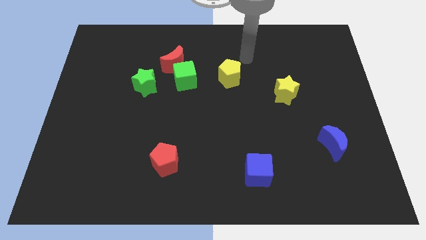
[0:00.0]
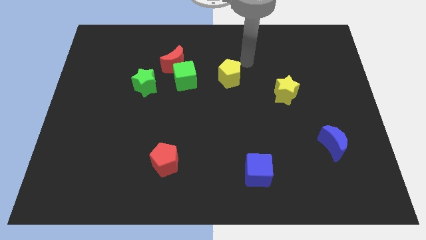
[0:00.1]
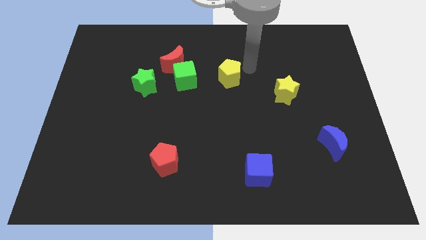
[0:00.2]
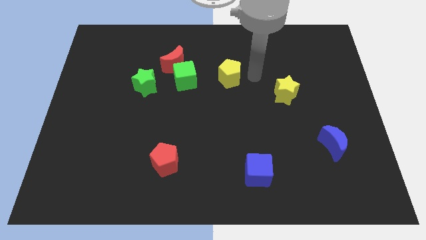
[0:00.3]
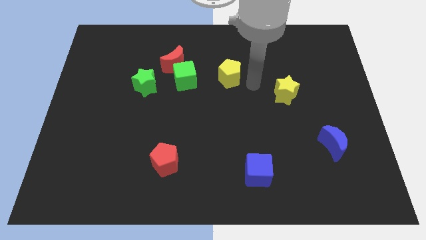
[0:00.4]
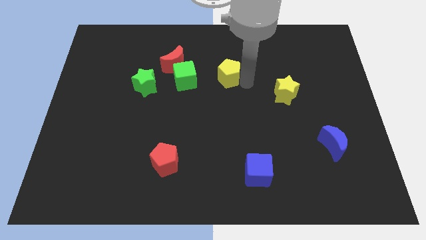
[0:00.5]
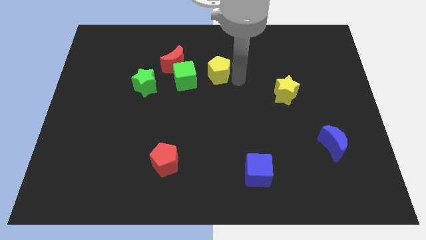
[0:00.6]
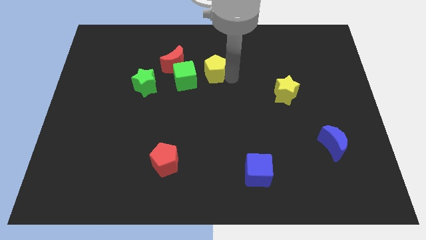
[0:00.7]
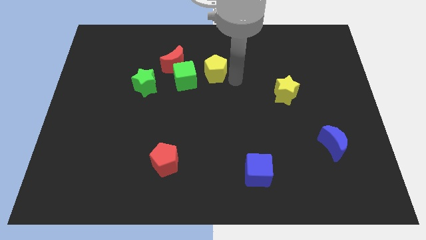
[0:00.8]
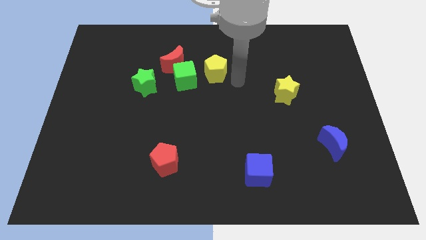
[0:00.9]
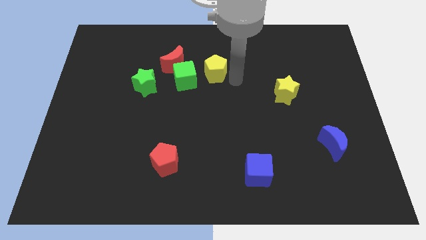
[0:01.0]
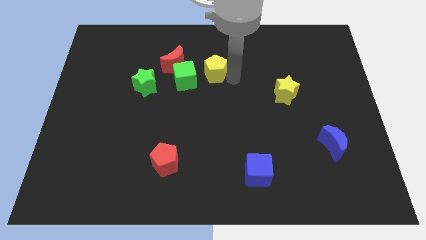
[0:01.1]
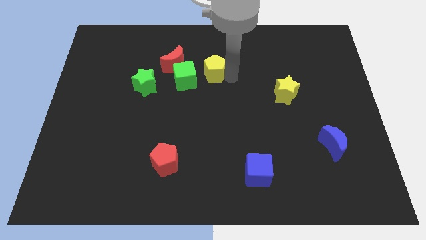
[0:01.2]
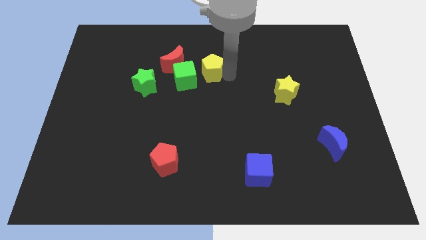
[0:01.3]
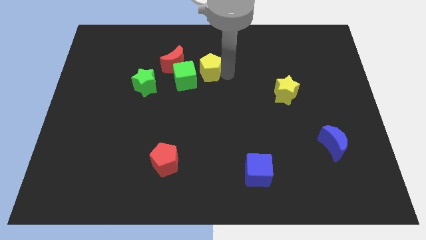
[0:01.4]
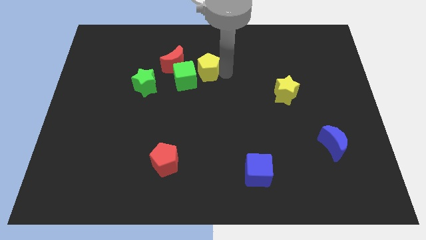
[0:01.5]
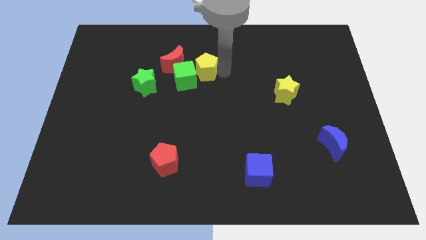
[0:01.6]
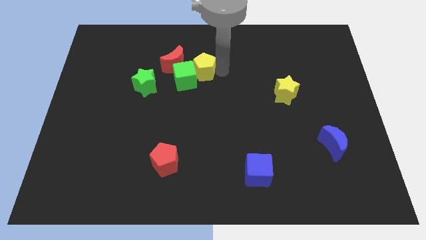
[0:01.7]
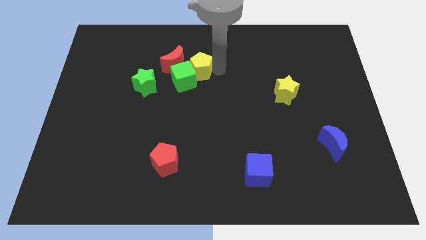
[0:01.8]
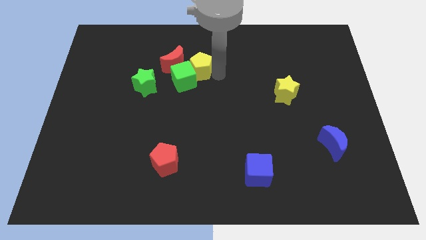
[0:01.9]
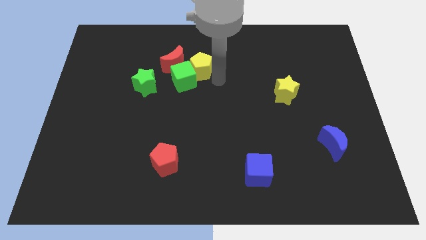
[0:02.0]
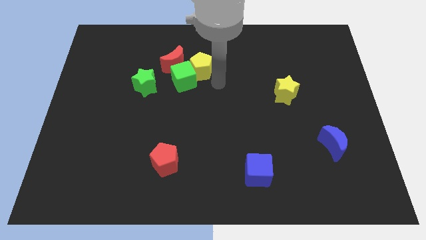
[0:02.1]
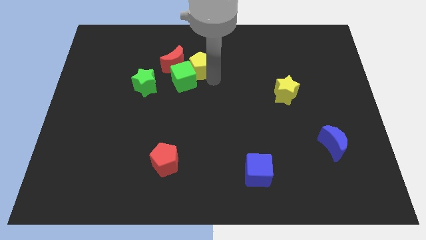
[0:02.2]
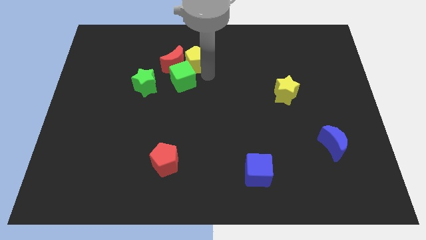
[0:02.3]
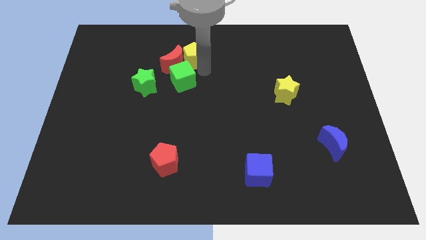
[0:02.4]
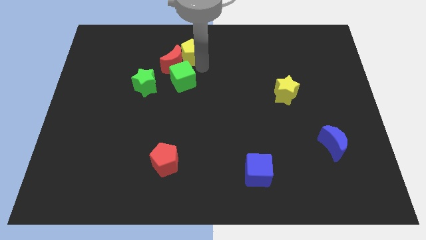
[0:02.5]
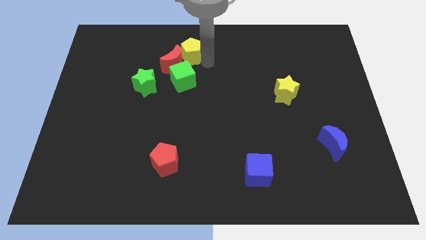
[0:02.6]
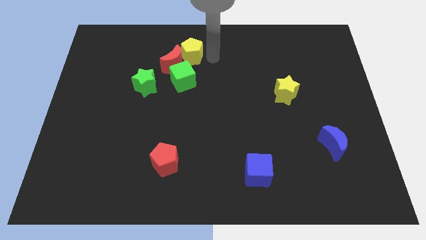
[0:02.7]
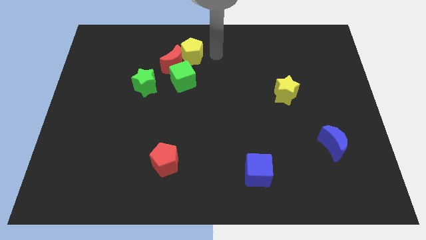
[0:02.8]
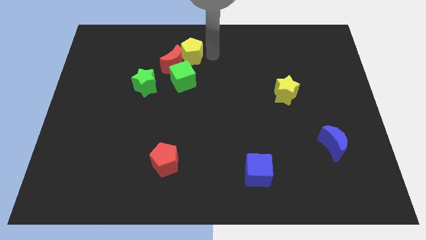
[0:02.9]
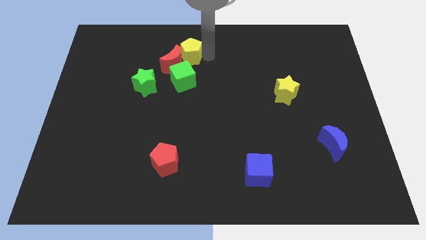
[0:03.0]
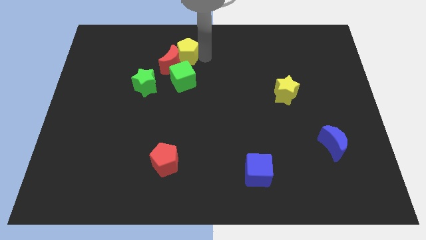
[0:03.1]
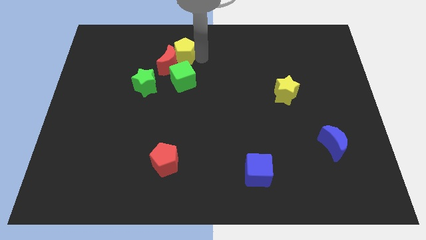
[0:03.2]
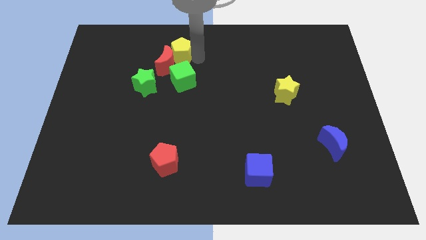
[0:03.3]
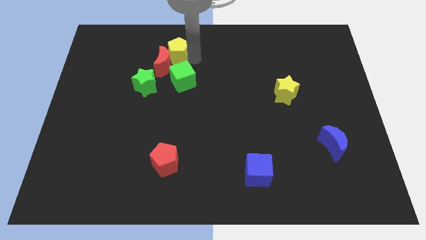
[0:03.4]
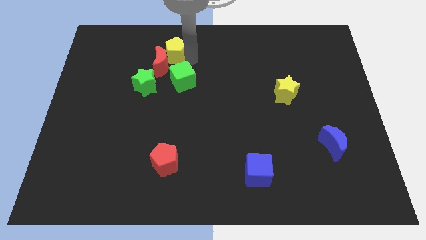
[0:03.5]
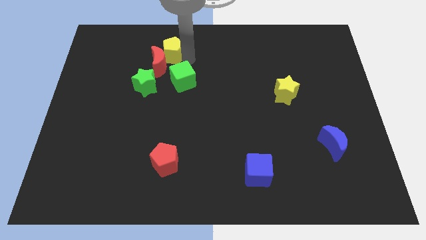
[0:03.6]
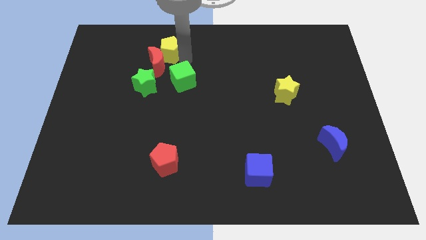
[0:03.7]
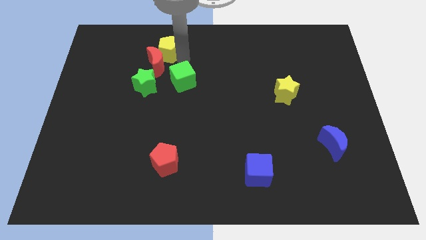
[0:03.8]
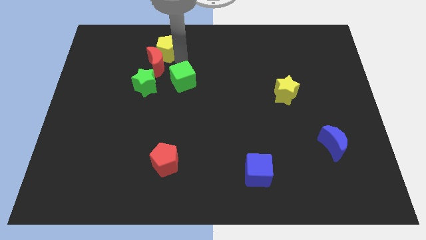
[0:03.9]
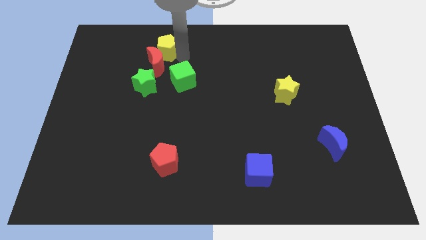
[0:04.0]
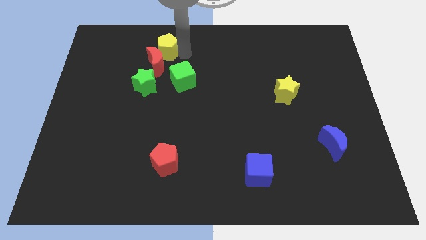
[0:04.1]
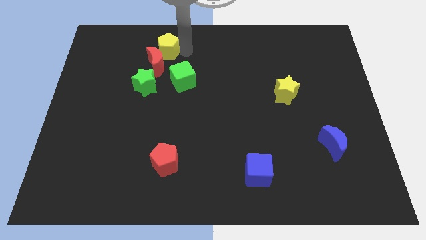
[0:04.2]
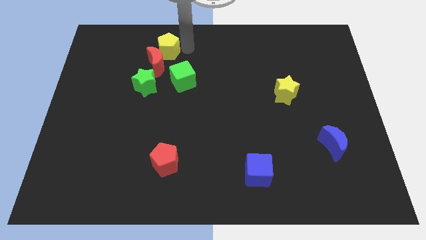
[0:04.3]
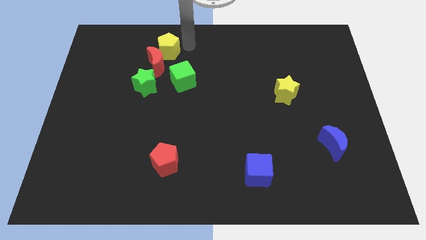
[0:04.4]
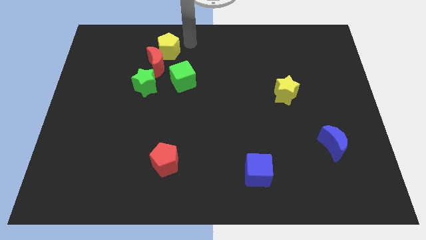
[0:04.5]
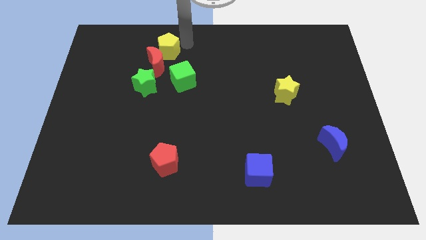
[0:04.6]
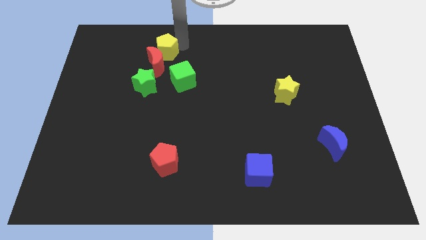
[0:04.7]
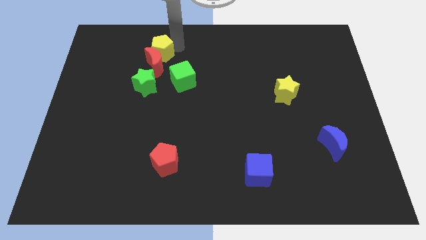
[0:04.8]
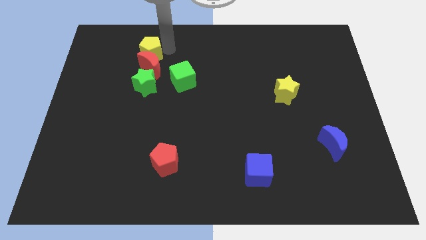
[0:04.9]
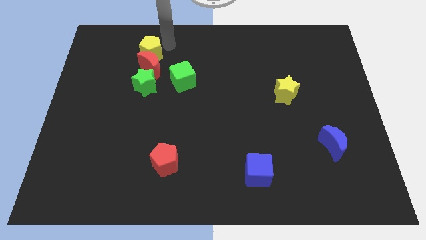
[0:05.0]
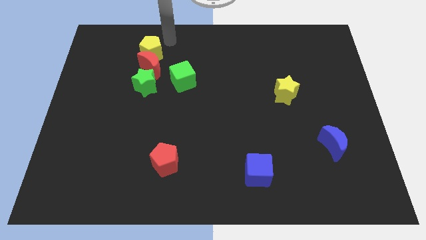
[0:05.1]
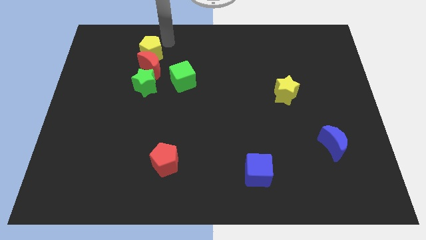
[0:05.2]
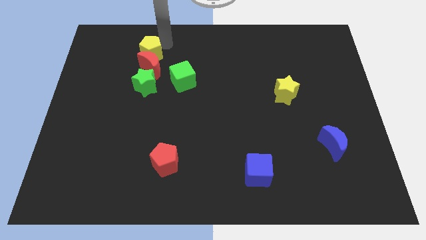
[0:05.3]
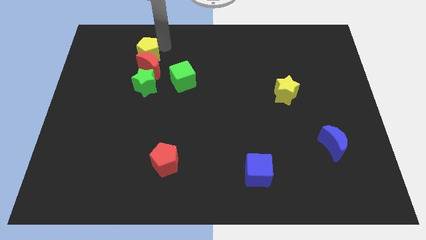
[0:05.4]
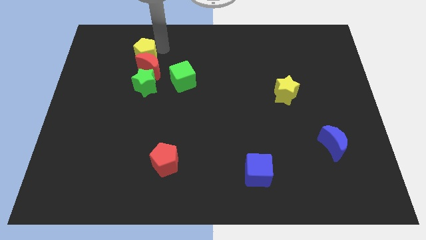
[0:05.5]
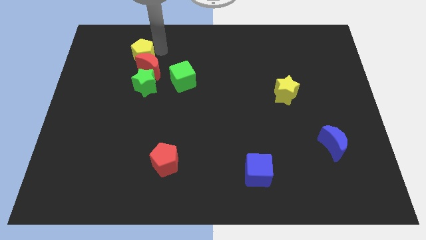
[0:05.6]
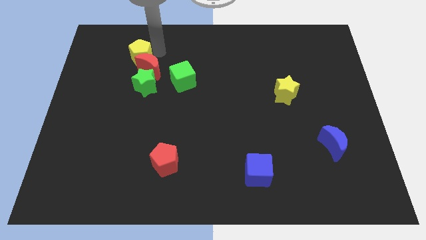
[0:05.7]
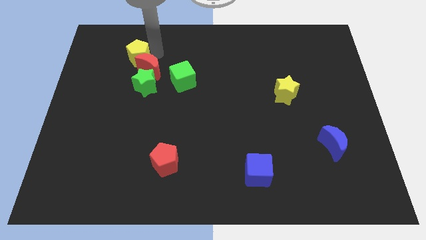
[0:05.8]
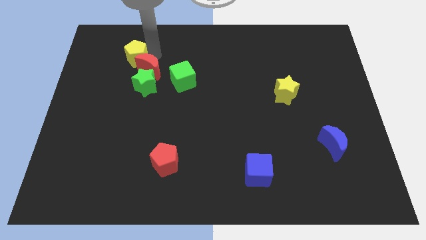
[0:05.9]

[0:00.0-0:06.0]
move the yellow pentagon diagonally up and to the left of the green star

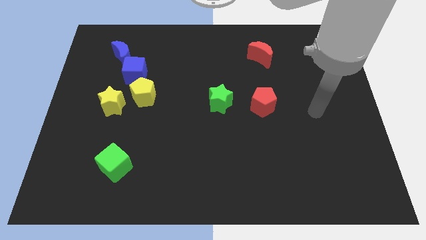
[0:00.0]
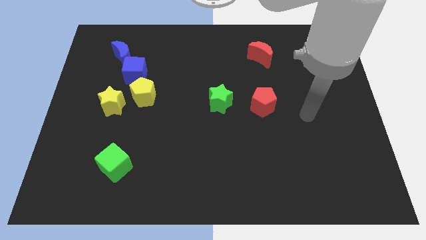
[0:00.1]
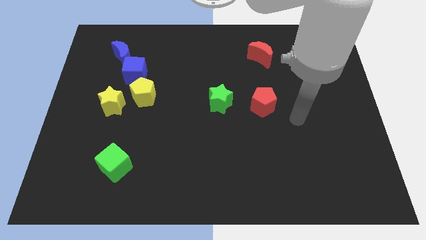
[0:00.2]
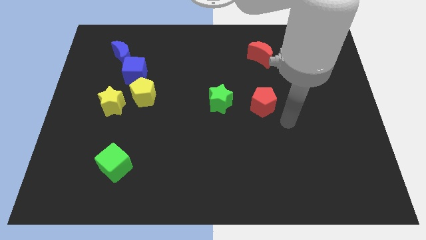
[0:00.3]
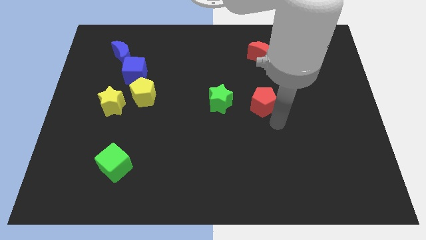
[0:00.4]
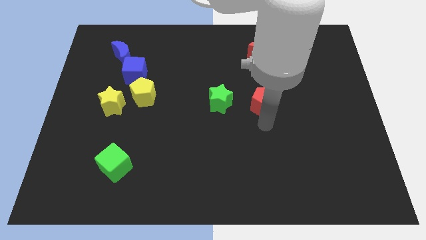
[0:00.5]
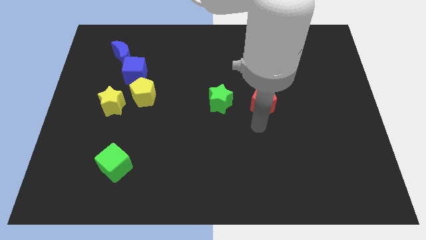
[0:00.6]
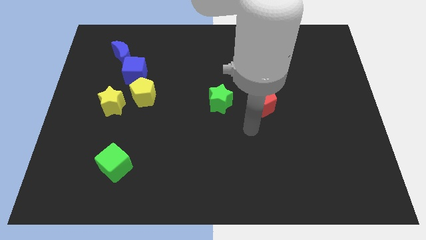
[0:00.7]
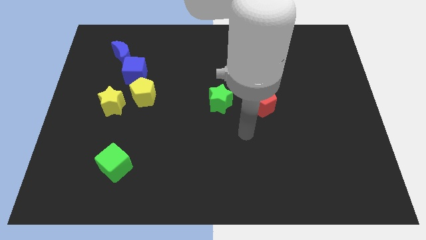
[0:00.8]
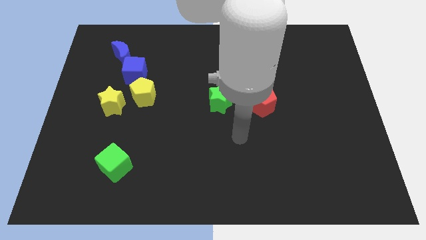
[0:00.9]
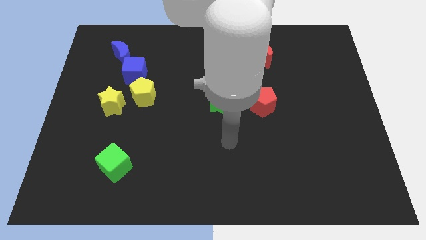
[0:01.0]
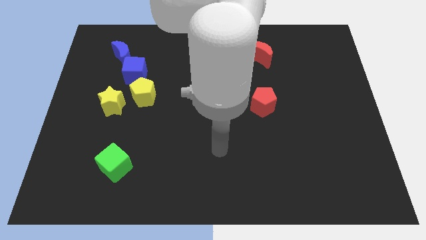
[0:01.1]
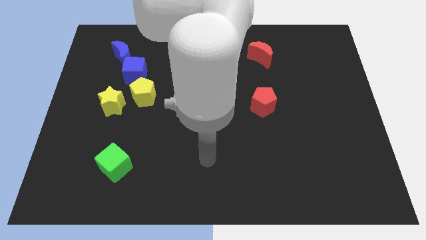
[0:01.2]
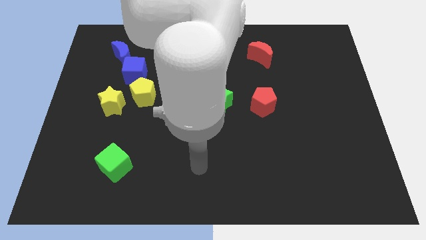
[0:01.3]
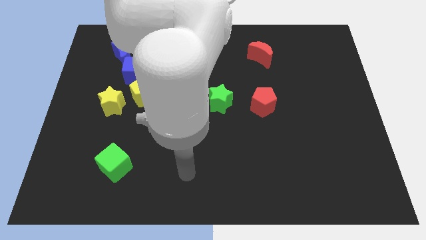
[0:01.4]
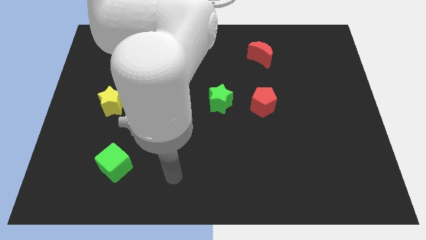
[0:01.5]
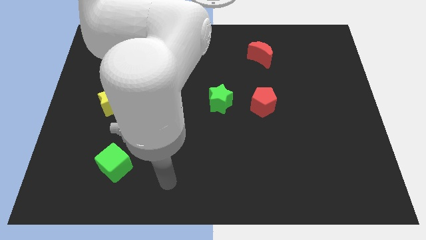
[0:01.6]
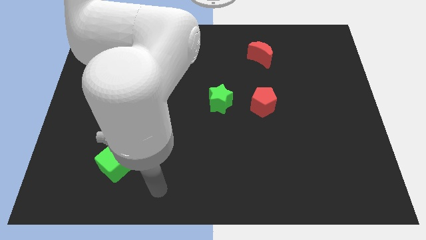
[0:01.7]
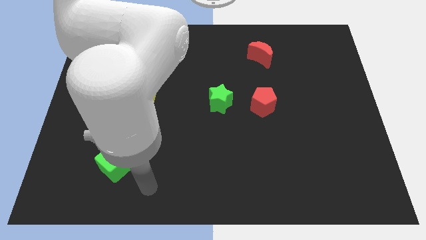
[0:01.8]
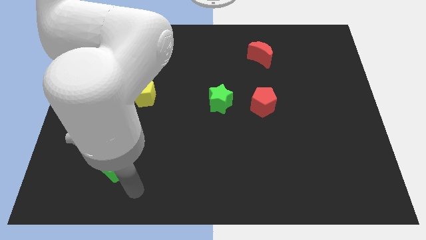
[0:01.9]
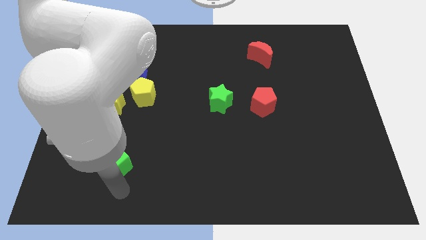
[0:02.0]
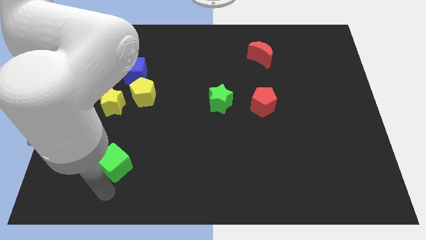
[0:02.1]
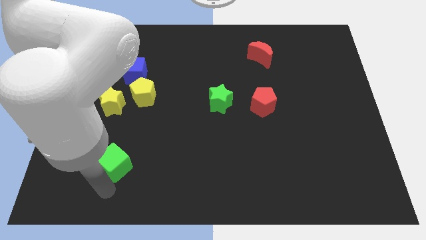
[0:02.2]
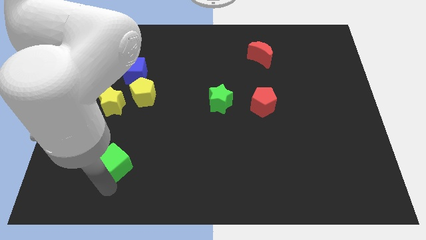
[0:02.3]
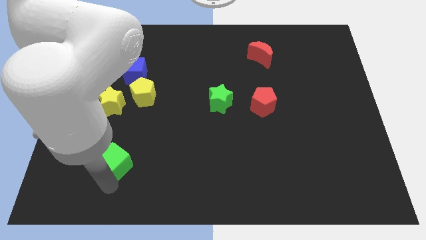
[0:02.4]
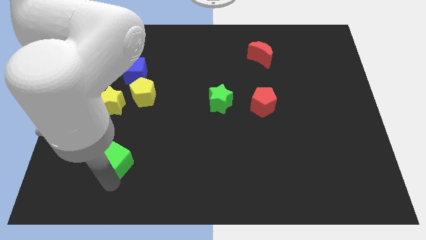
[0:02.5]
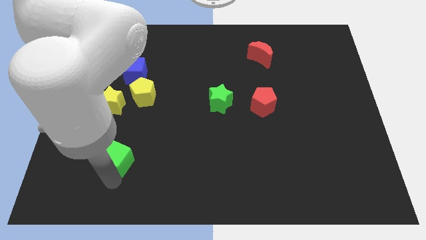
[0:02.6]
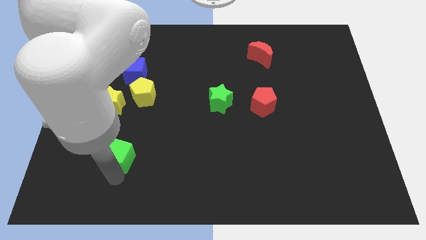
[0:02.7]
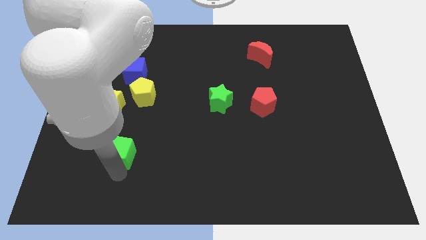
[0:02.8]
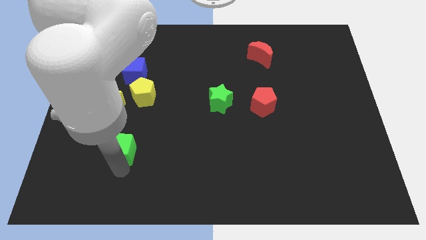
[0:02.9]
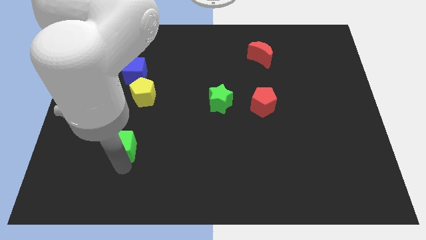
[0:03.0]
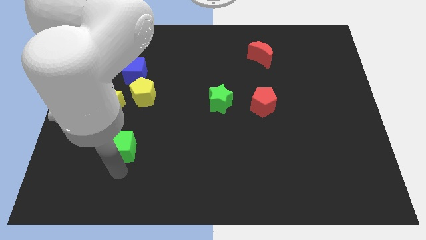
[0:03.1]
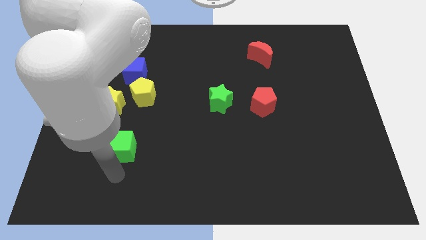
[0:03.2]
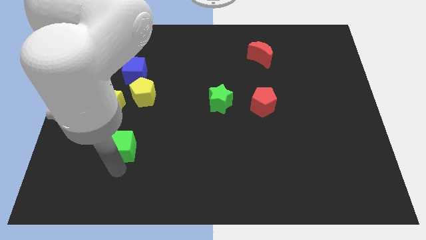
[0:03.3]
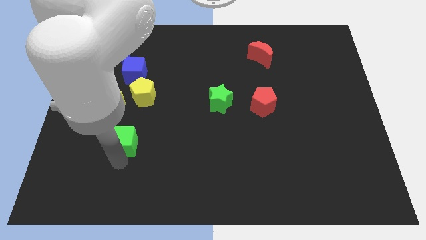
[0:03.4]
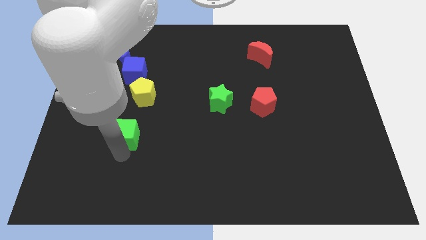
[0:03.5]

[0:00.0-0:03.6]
move the green cube diagonally down and to the right of the yellow star
